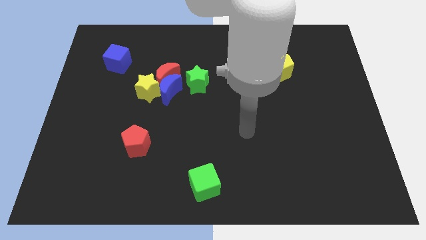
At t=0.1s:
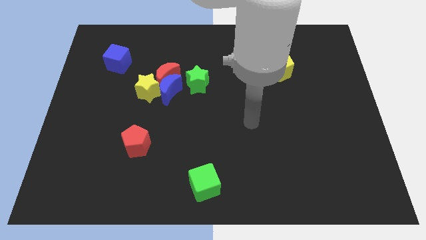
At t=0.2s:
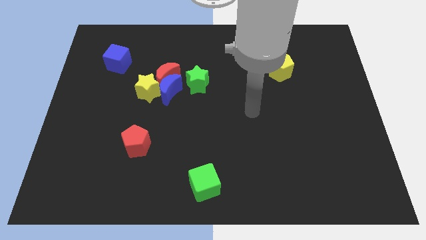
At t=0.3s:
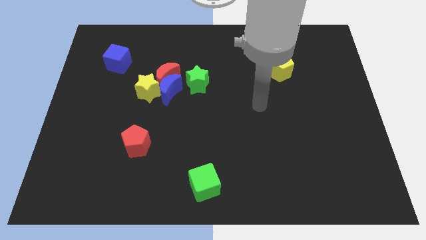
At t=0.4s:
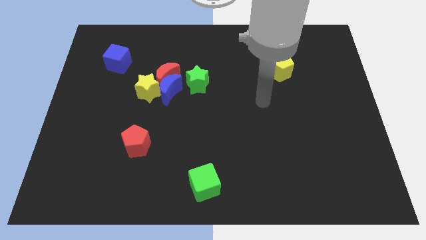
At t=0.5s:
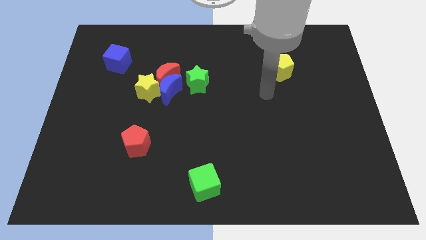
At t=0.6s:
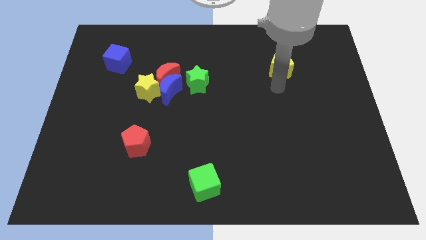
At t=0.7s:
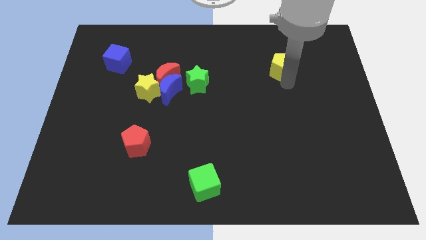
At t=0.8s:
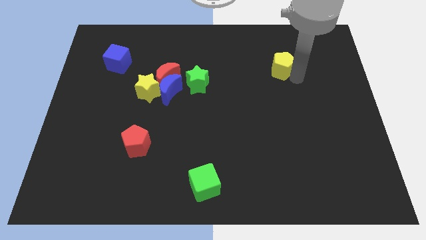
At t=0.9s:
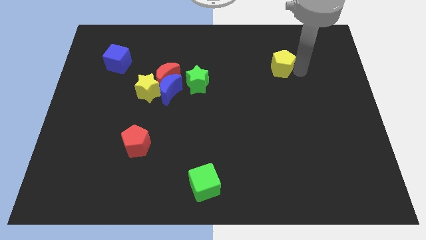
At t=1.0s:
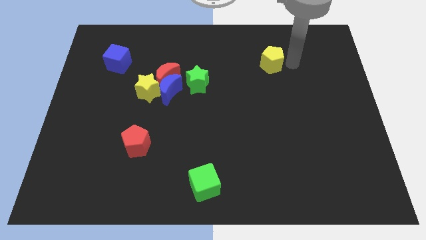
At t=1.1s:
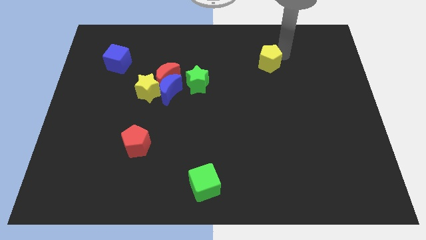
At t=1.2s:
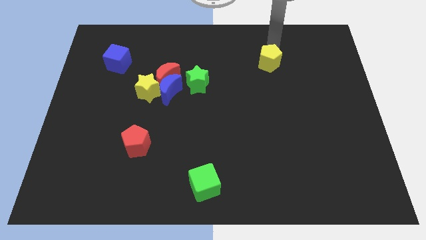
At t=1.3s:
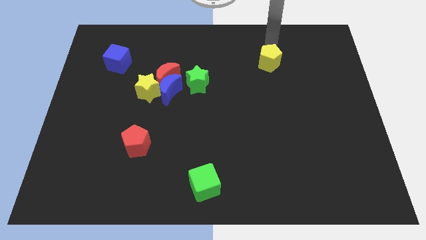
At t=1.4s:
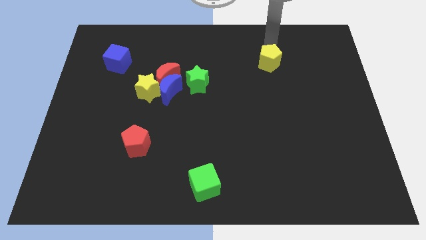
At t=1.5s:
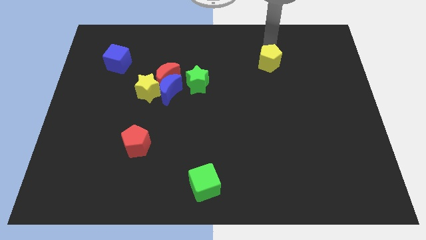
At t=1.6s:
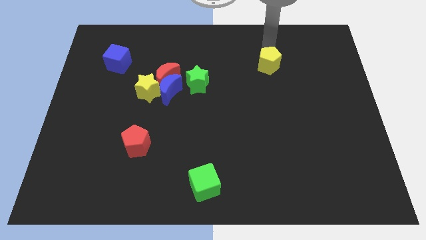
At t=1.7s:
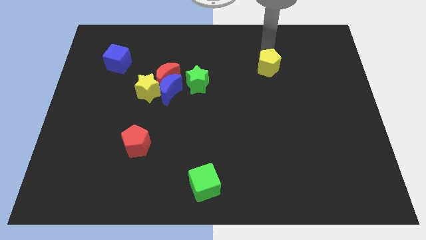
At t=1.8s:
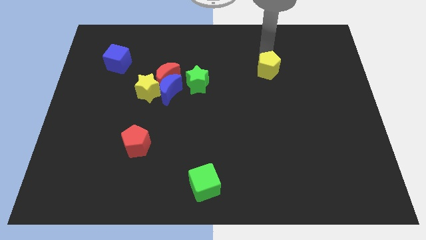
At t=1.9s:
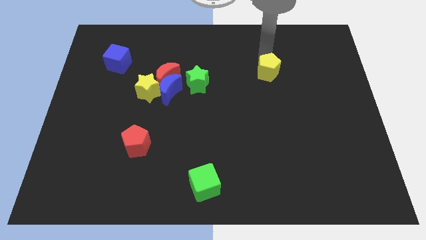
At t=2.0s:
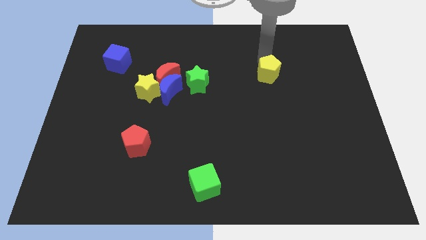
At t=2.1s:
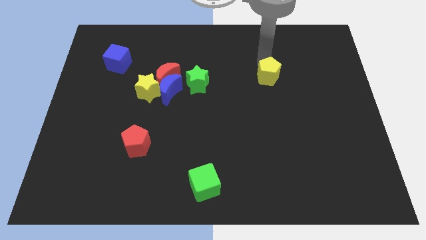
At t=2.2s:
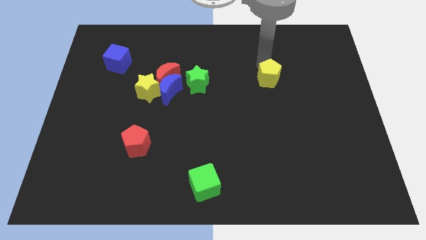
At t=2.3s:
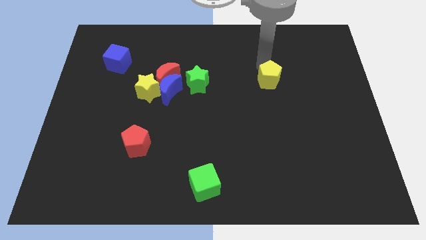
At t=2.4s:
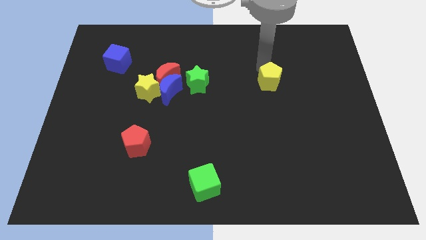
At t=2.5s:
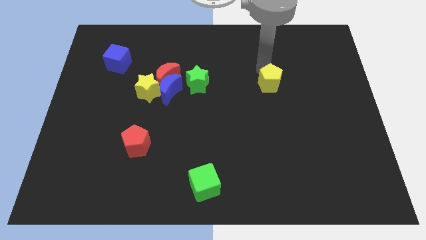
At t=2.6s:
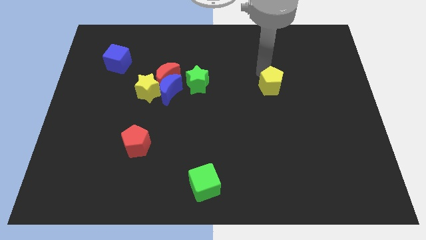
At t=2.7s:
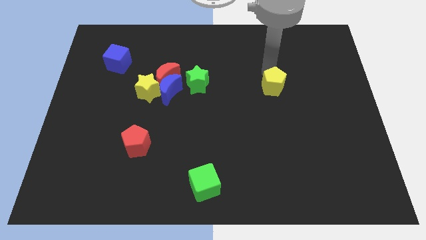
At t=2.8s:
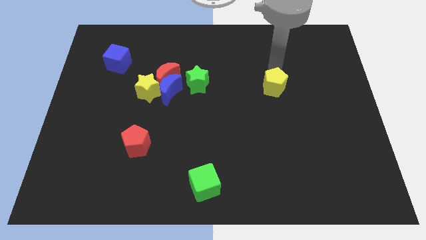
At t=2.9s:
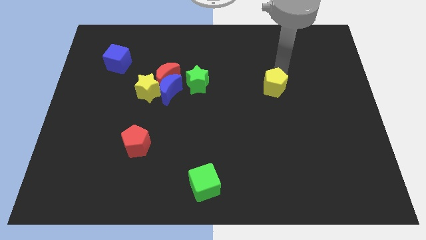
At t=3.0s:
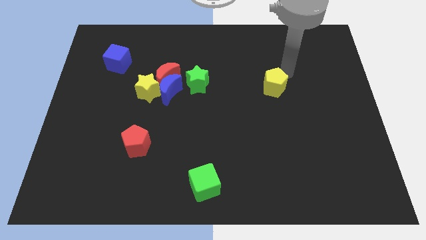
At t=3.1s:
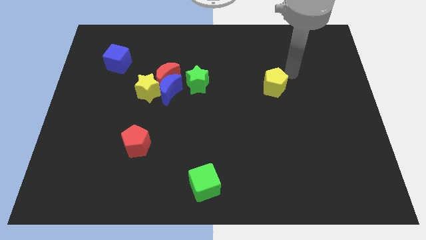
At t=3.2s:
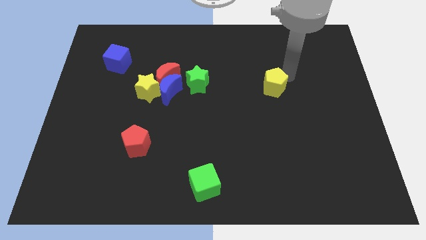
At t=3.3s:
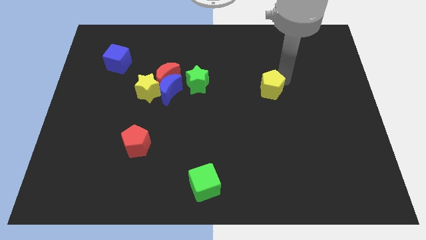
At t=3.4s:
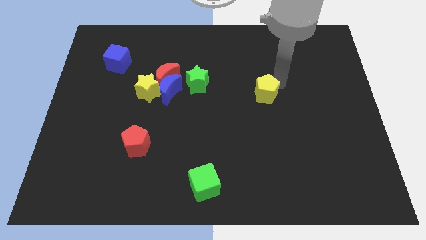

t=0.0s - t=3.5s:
slide the yellow pentagon diagonally down and left somewhat

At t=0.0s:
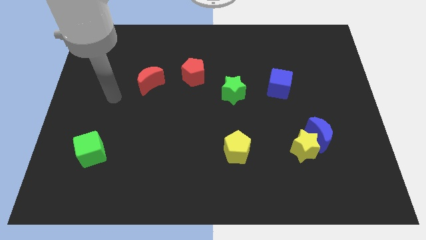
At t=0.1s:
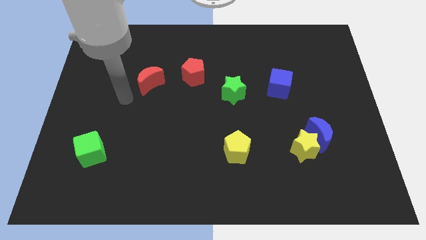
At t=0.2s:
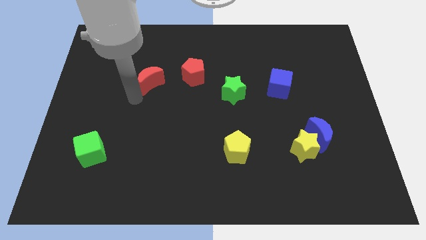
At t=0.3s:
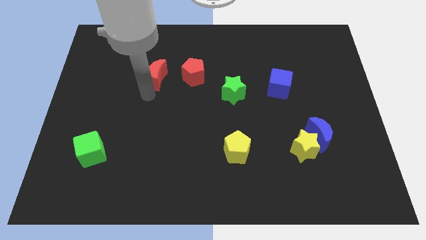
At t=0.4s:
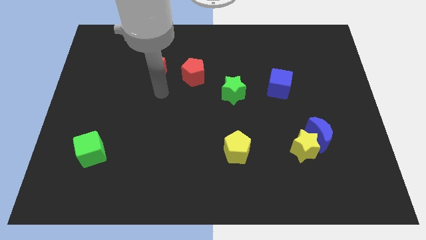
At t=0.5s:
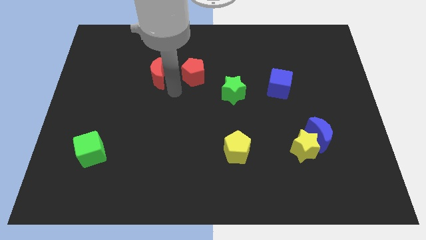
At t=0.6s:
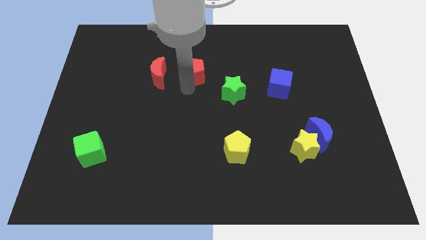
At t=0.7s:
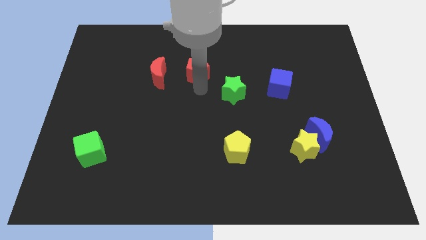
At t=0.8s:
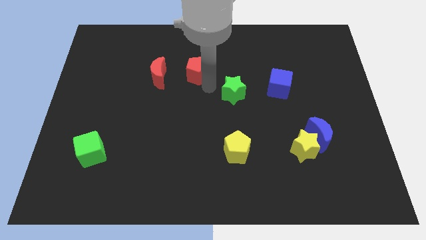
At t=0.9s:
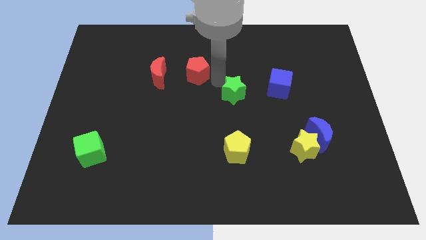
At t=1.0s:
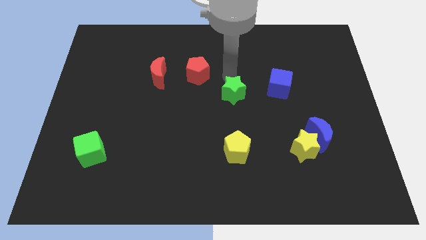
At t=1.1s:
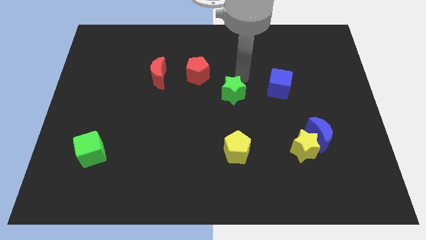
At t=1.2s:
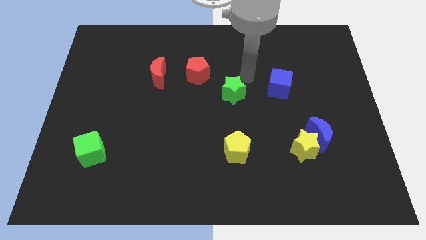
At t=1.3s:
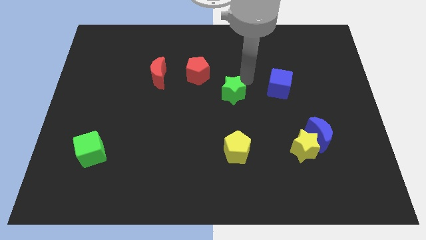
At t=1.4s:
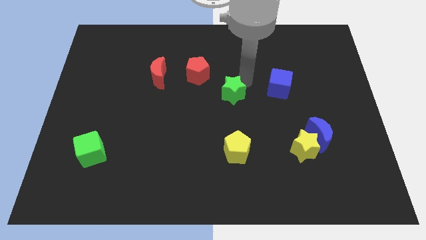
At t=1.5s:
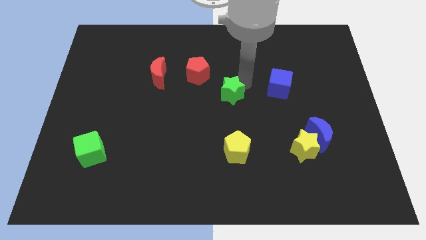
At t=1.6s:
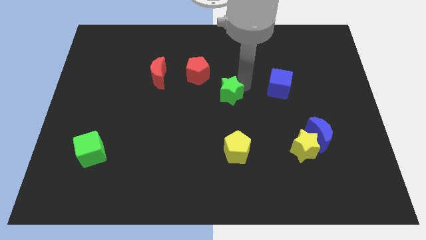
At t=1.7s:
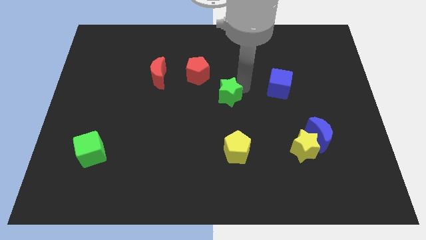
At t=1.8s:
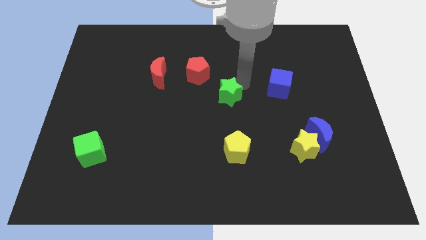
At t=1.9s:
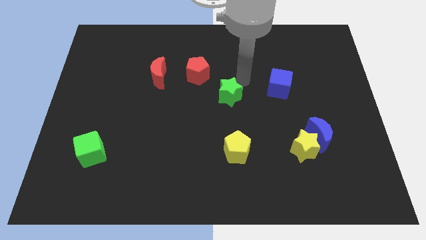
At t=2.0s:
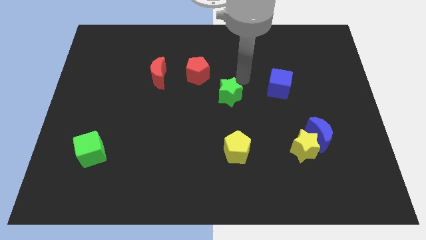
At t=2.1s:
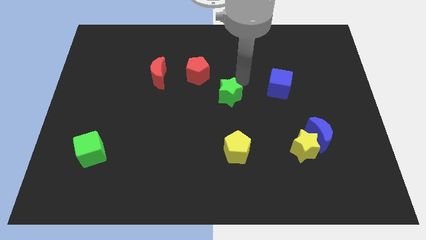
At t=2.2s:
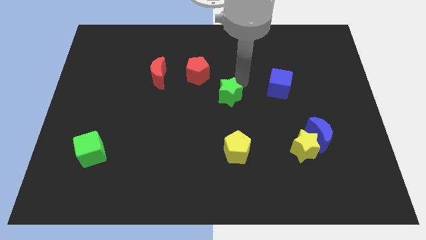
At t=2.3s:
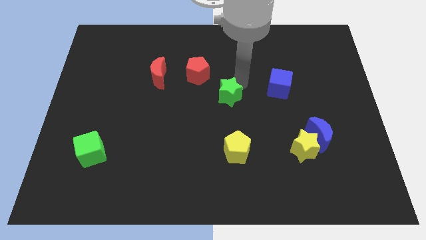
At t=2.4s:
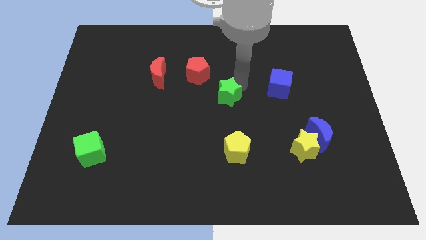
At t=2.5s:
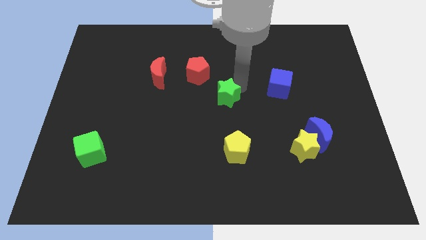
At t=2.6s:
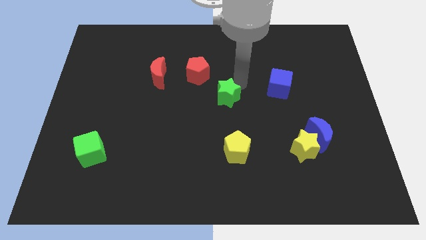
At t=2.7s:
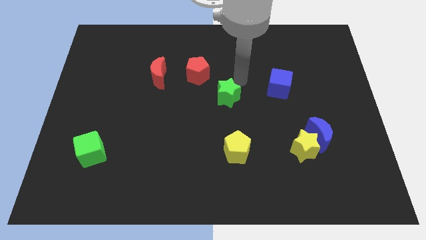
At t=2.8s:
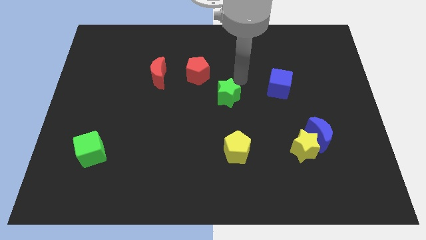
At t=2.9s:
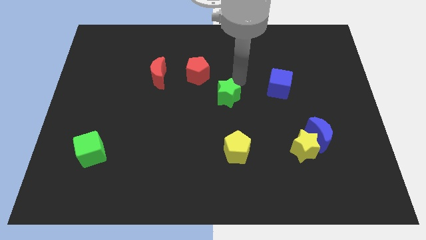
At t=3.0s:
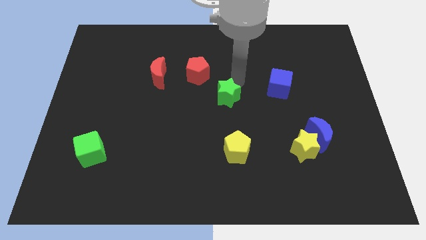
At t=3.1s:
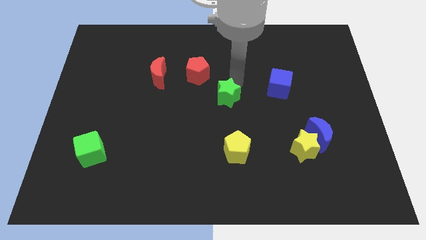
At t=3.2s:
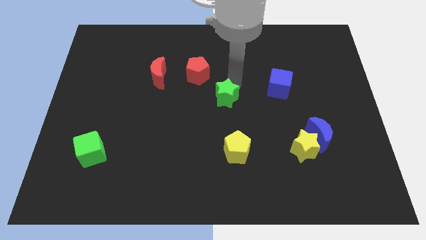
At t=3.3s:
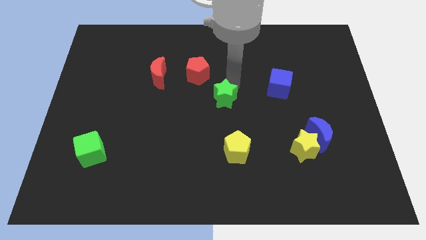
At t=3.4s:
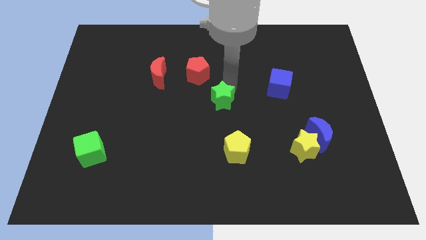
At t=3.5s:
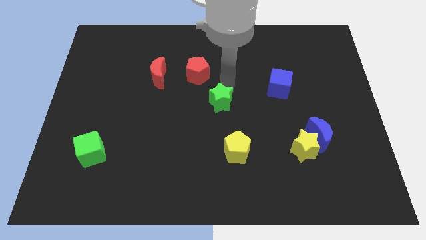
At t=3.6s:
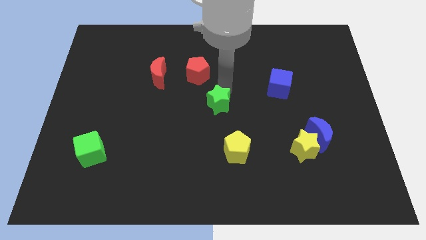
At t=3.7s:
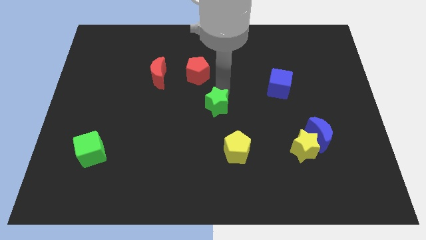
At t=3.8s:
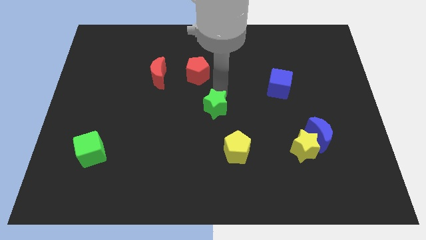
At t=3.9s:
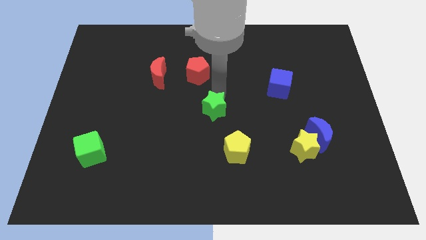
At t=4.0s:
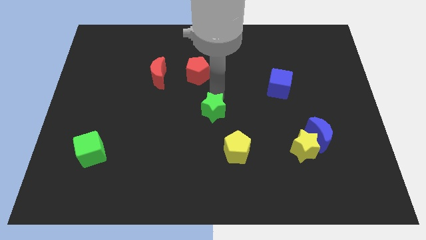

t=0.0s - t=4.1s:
slide the green star downwards and left diagonally slightly
